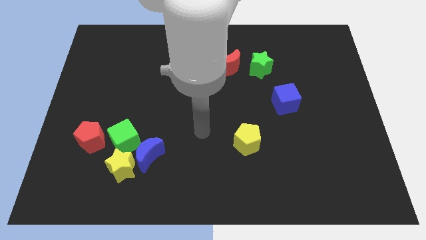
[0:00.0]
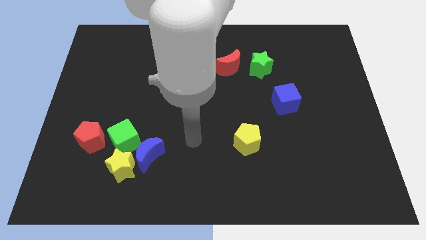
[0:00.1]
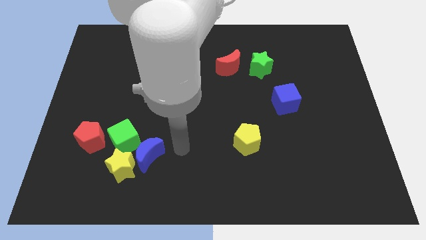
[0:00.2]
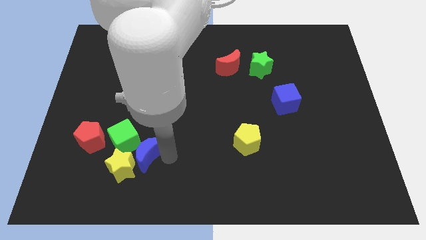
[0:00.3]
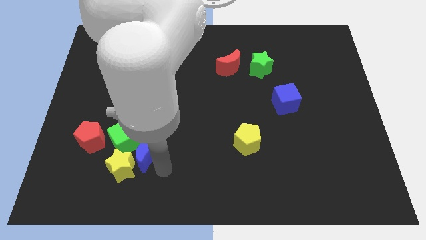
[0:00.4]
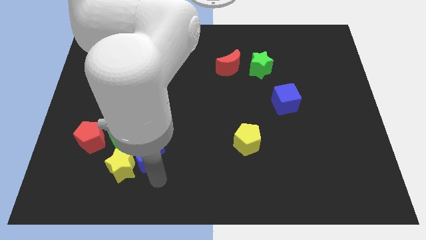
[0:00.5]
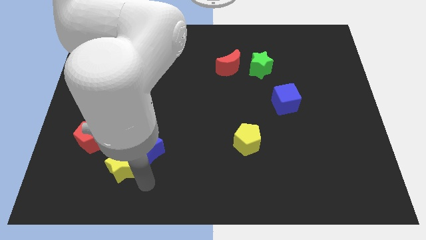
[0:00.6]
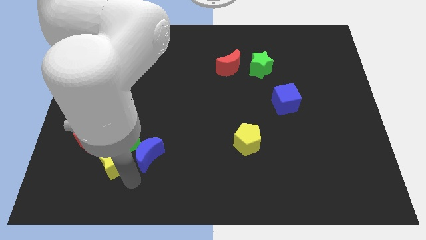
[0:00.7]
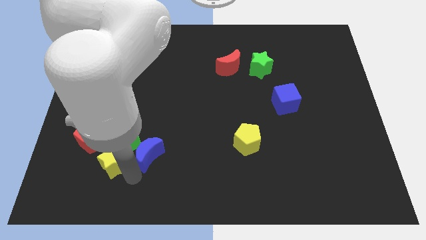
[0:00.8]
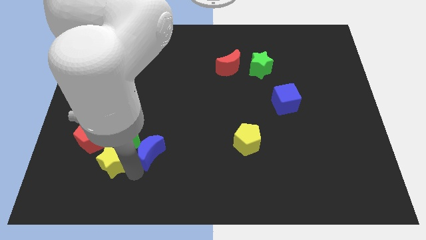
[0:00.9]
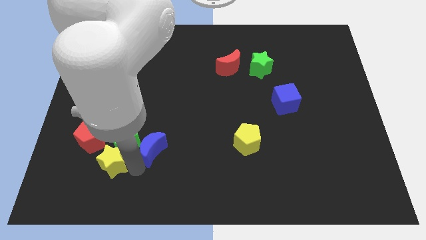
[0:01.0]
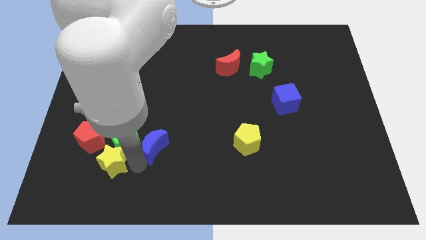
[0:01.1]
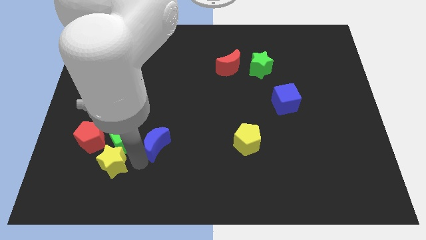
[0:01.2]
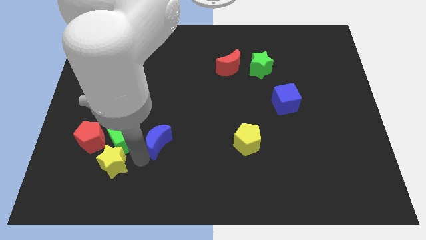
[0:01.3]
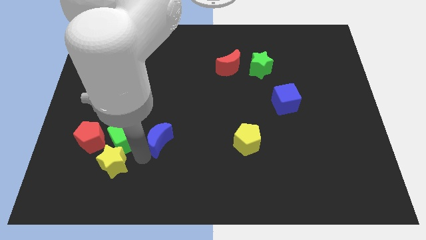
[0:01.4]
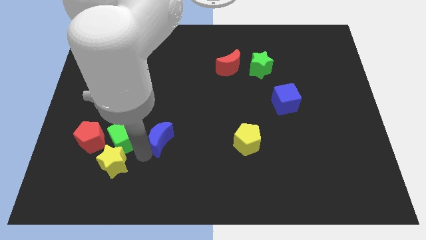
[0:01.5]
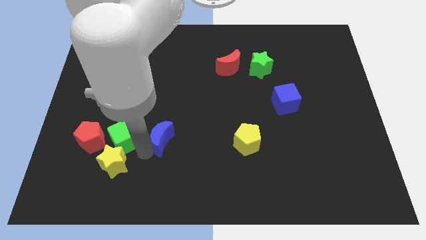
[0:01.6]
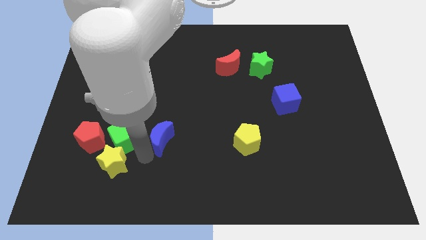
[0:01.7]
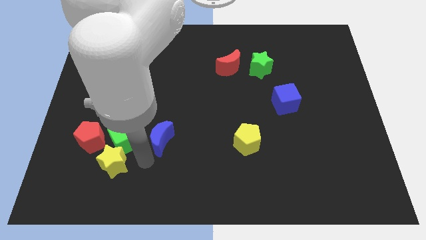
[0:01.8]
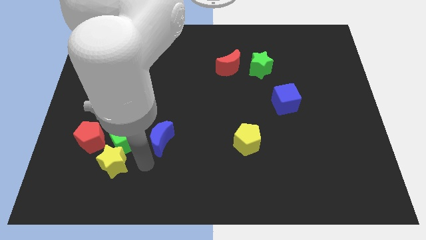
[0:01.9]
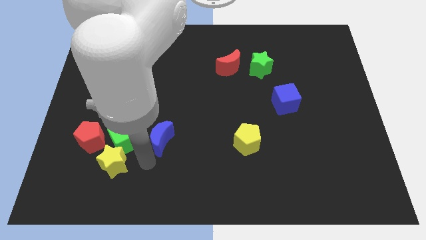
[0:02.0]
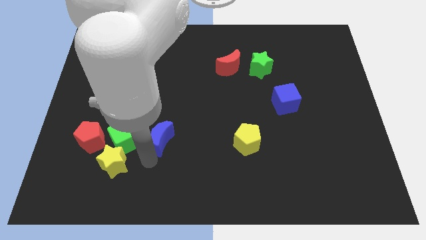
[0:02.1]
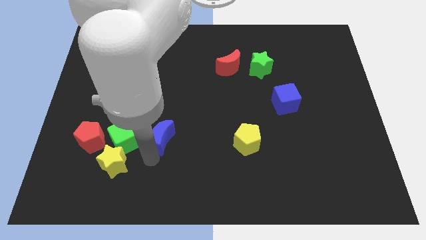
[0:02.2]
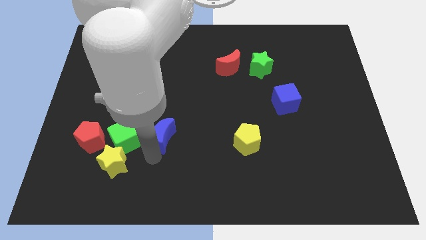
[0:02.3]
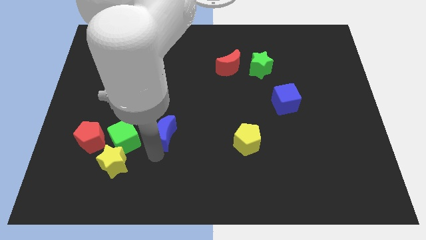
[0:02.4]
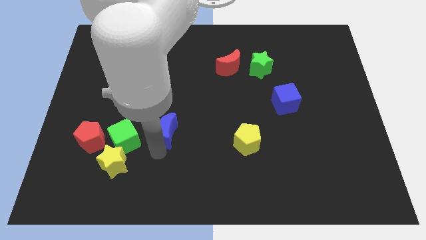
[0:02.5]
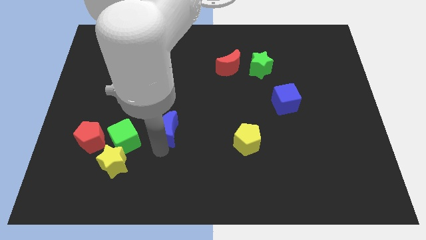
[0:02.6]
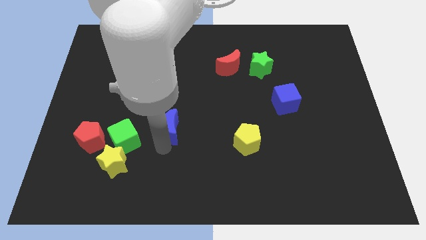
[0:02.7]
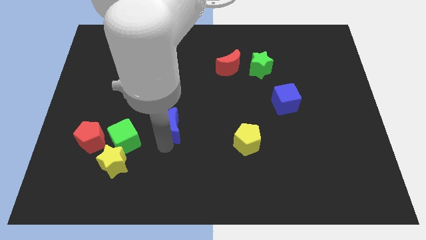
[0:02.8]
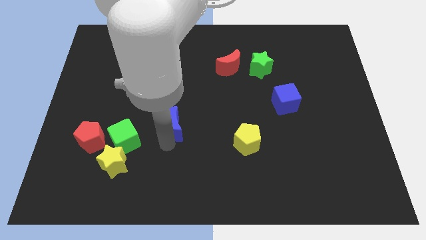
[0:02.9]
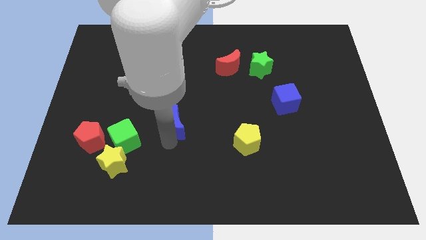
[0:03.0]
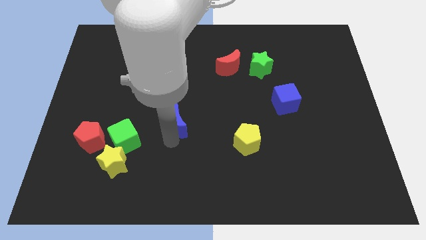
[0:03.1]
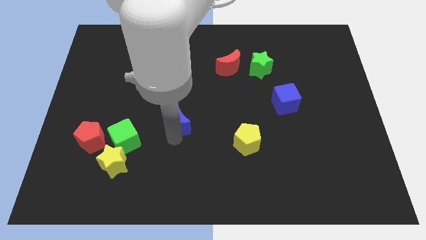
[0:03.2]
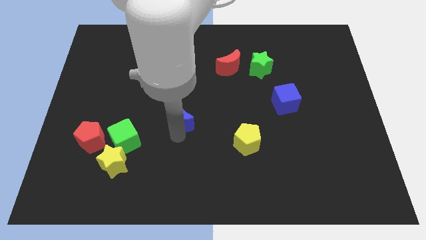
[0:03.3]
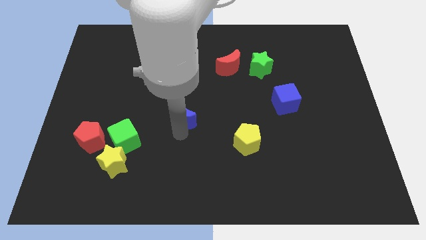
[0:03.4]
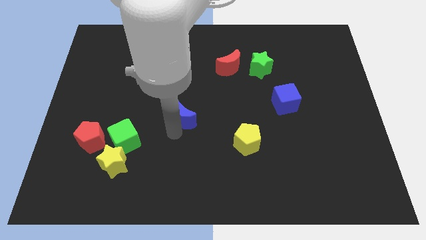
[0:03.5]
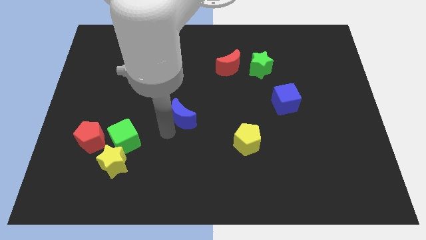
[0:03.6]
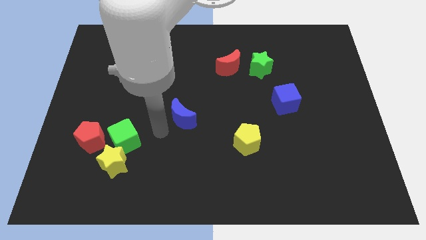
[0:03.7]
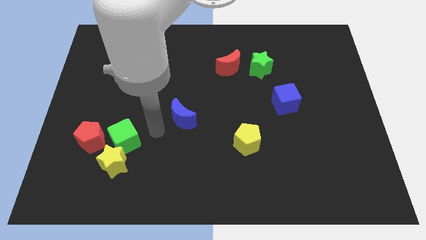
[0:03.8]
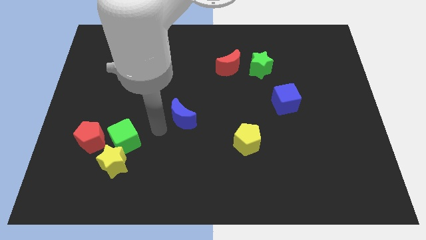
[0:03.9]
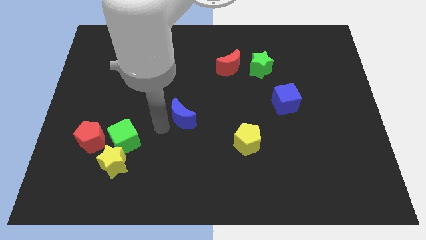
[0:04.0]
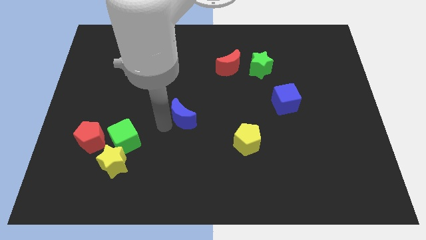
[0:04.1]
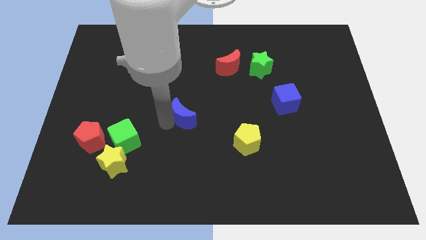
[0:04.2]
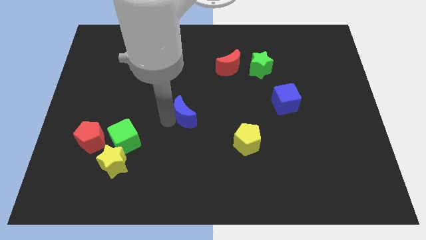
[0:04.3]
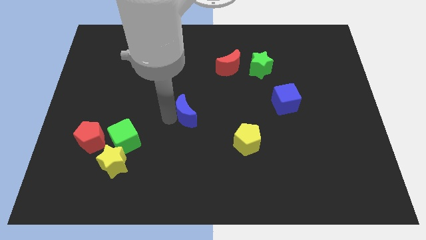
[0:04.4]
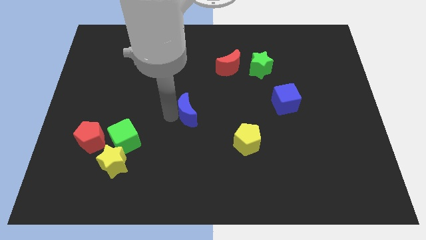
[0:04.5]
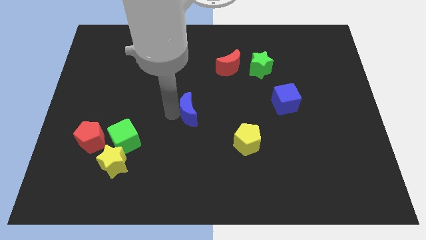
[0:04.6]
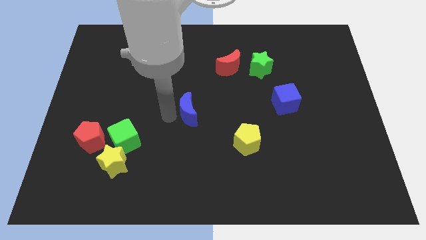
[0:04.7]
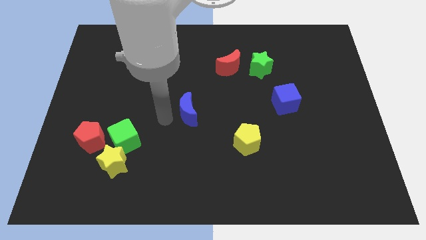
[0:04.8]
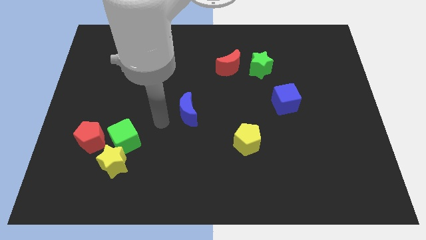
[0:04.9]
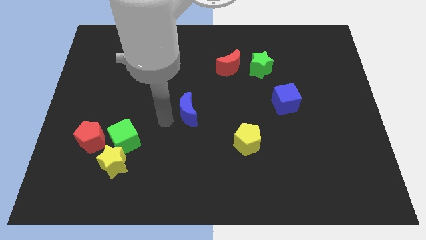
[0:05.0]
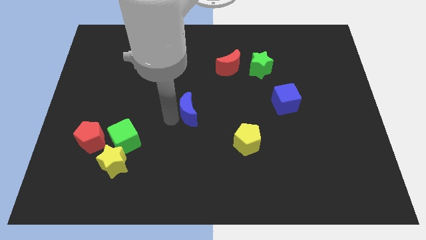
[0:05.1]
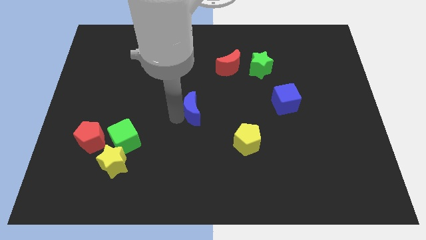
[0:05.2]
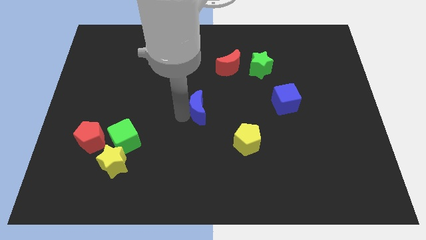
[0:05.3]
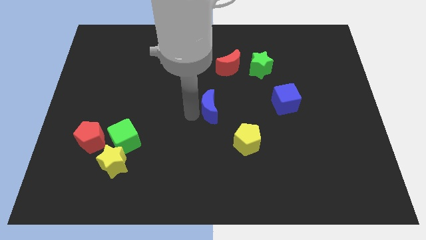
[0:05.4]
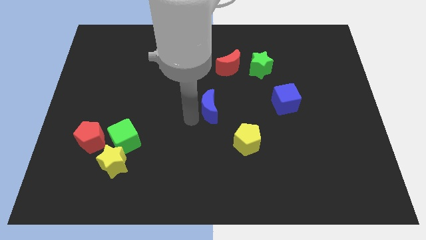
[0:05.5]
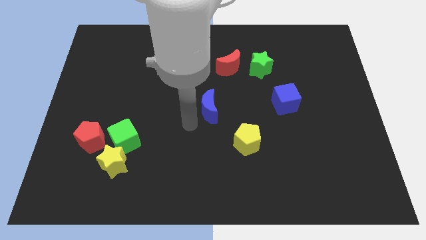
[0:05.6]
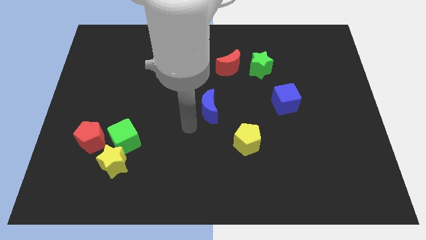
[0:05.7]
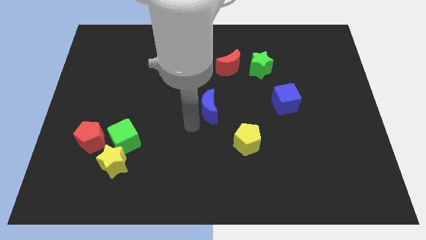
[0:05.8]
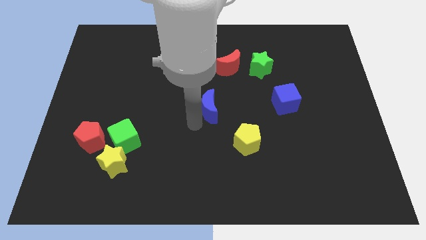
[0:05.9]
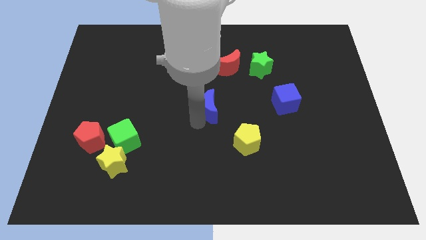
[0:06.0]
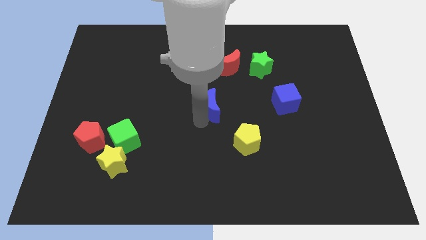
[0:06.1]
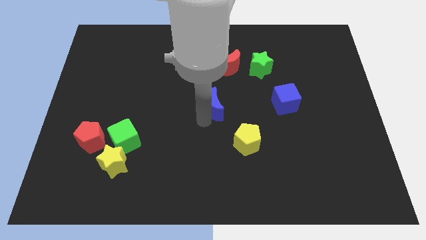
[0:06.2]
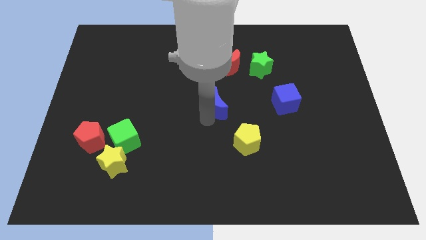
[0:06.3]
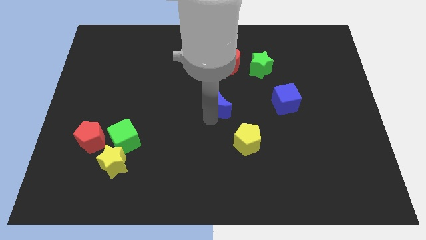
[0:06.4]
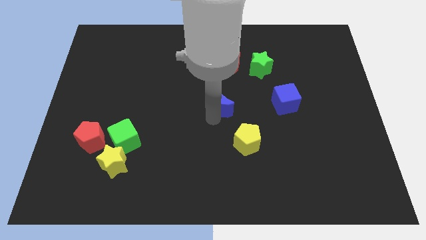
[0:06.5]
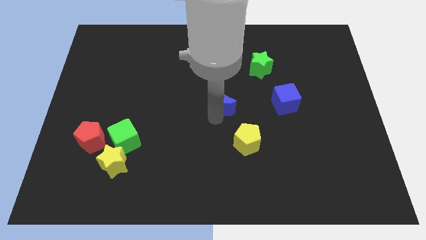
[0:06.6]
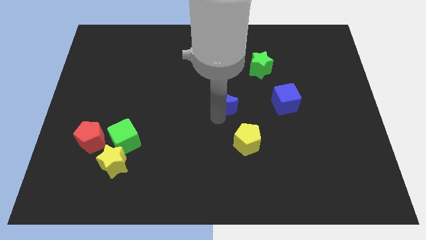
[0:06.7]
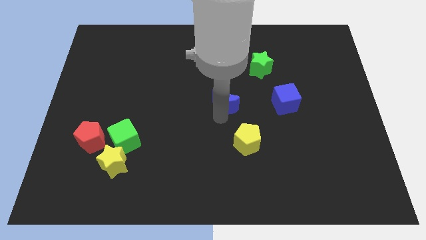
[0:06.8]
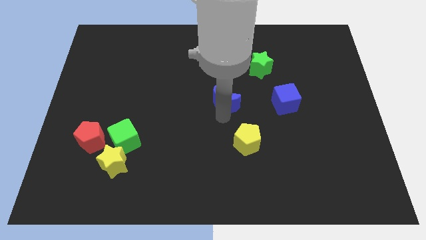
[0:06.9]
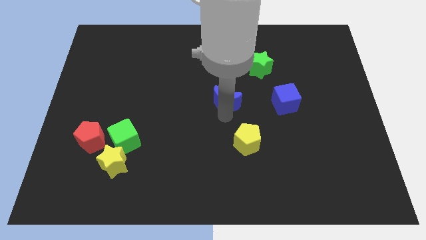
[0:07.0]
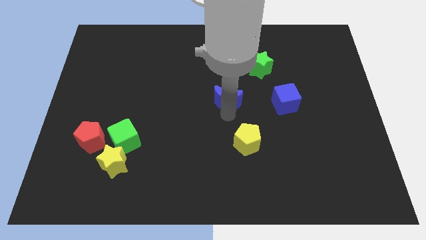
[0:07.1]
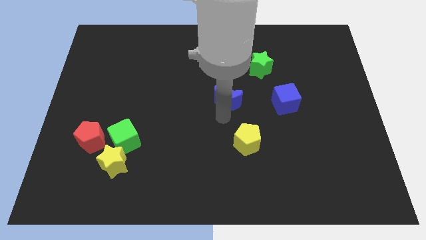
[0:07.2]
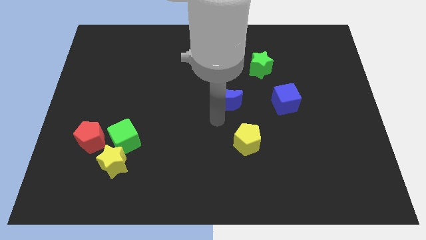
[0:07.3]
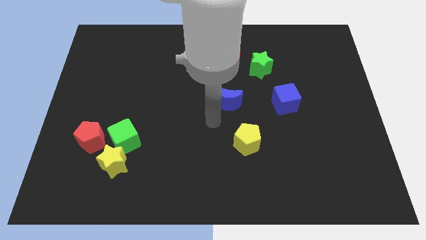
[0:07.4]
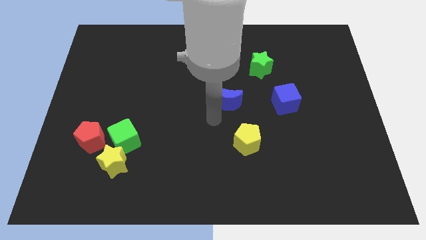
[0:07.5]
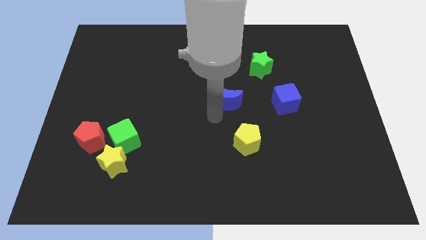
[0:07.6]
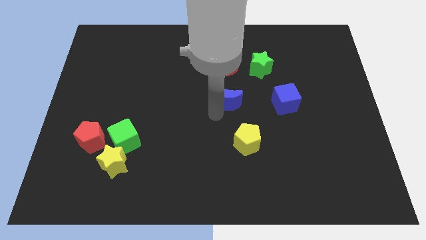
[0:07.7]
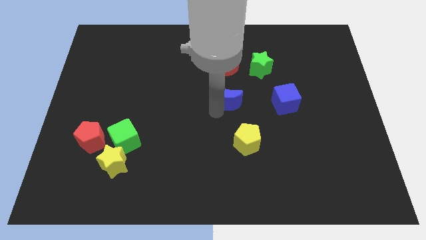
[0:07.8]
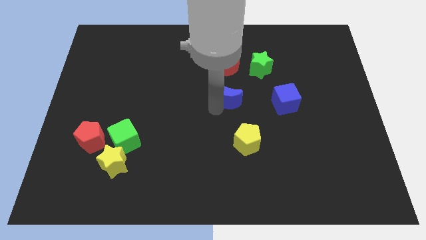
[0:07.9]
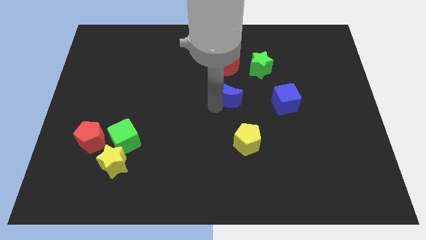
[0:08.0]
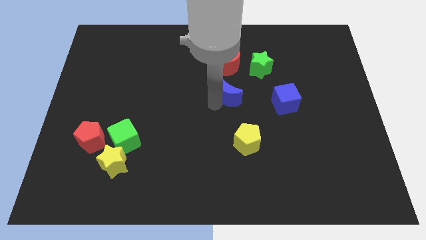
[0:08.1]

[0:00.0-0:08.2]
slide the blue moon to the bottom left of the green star
